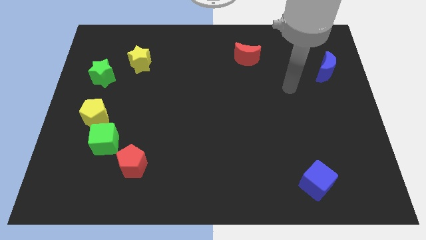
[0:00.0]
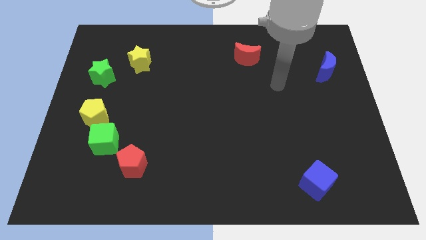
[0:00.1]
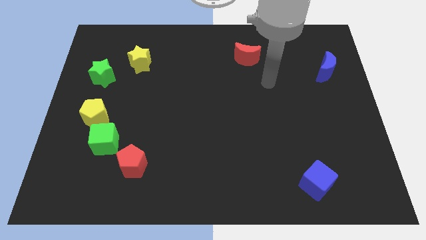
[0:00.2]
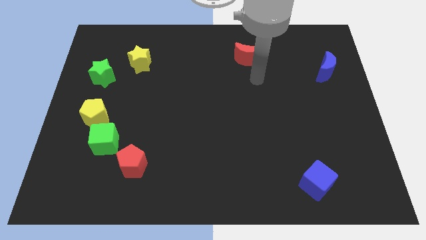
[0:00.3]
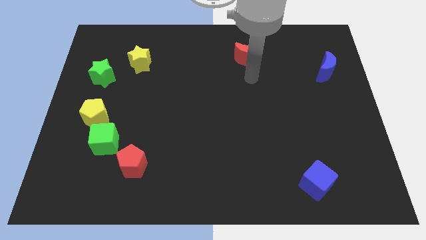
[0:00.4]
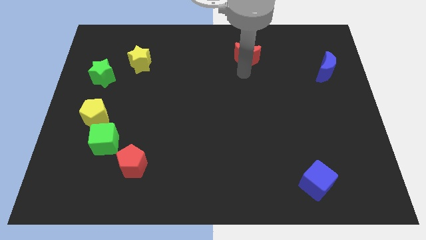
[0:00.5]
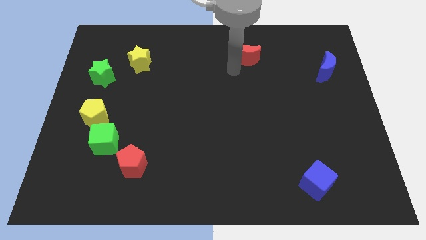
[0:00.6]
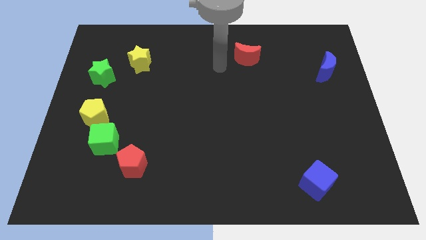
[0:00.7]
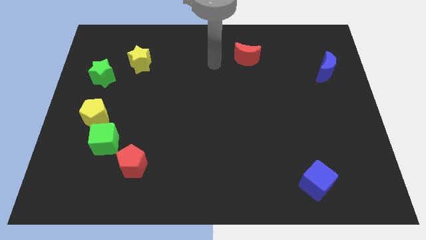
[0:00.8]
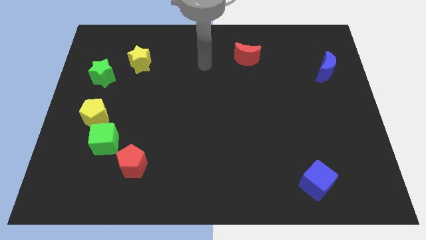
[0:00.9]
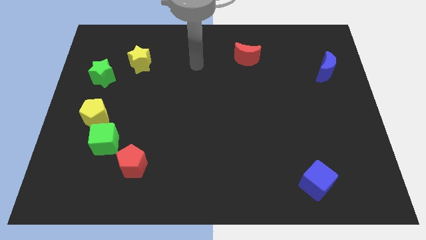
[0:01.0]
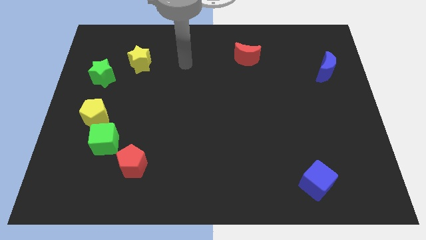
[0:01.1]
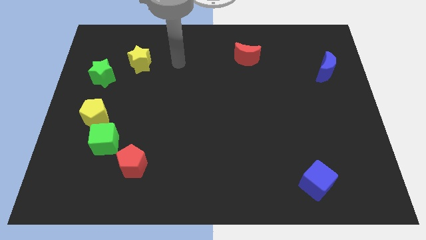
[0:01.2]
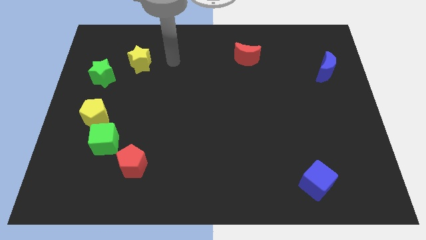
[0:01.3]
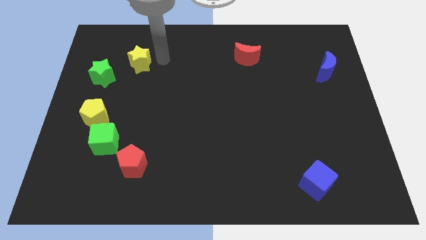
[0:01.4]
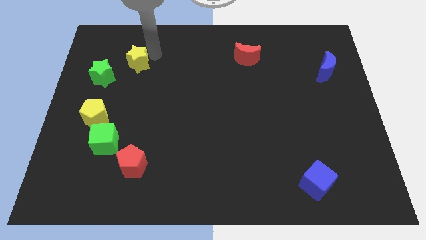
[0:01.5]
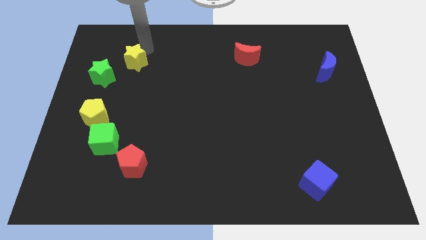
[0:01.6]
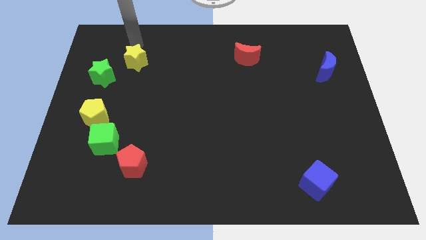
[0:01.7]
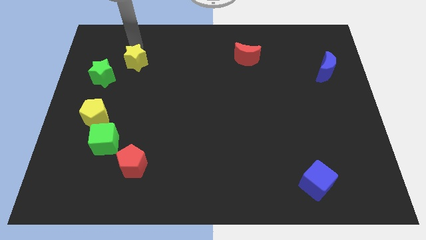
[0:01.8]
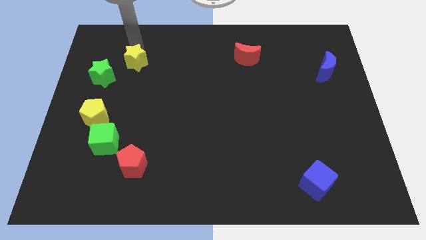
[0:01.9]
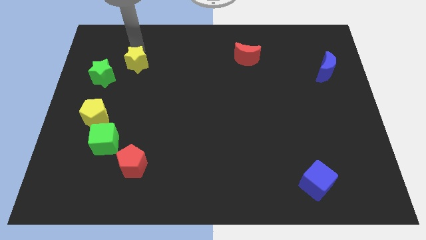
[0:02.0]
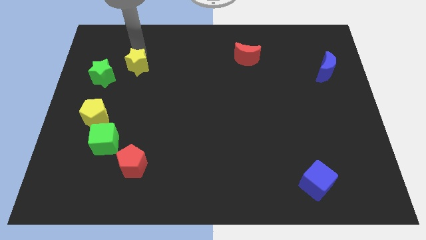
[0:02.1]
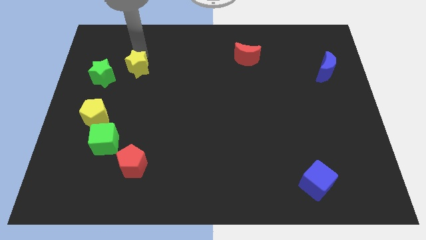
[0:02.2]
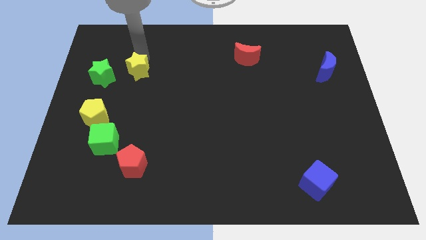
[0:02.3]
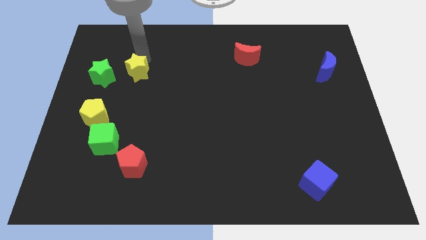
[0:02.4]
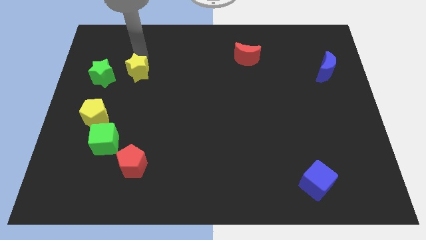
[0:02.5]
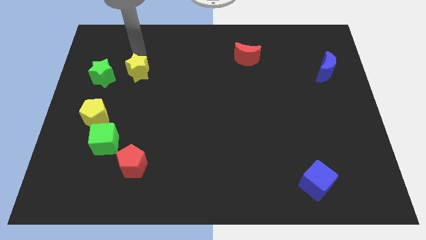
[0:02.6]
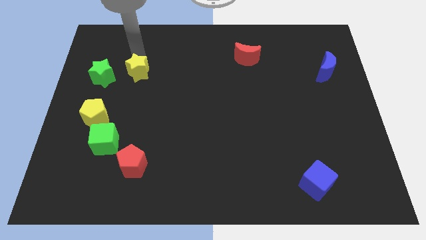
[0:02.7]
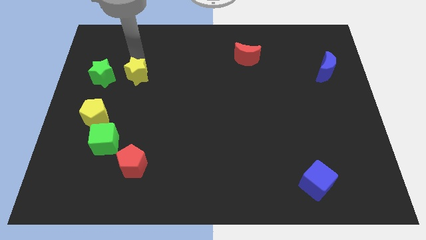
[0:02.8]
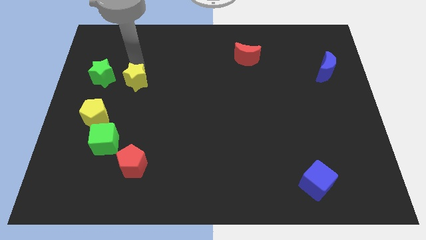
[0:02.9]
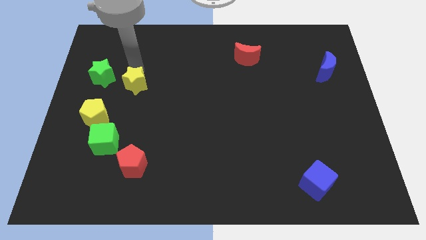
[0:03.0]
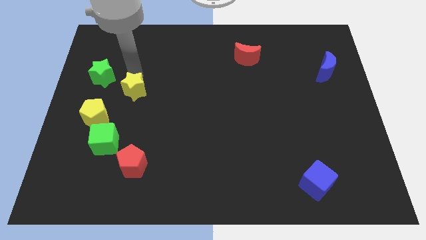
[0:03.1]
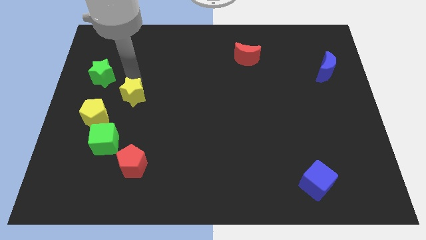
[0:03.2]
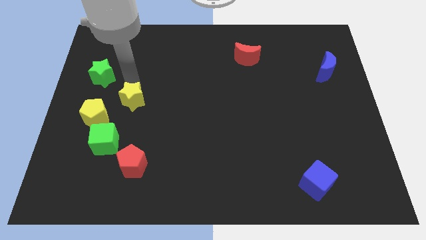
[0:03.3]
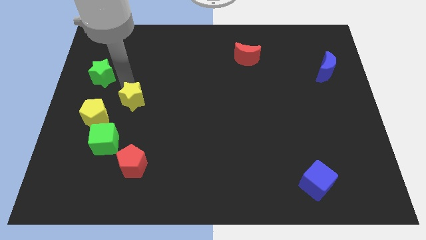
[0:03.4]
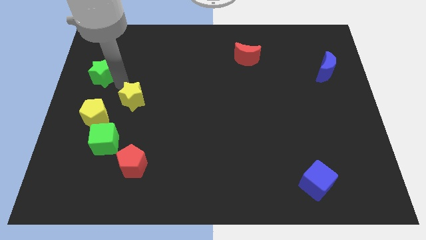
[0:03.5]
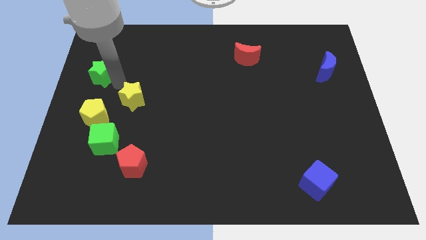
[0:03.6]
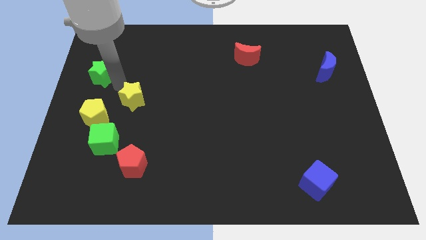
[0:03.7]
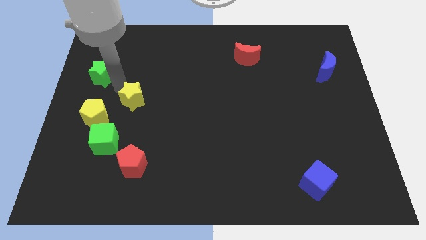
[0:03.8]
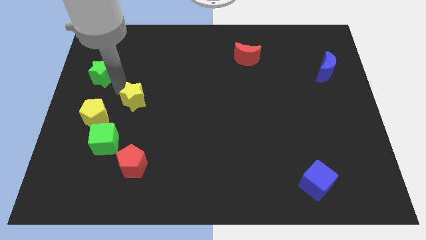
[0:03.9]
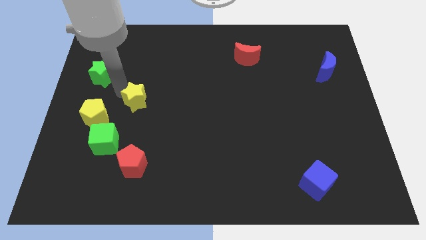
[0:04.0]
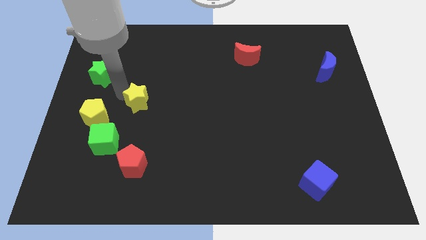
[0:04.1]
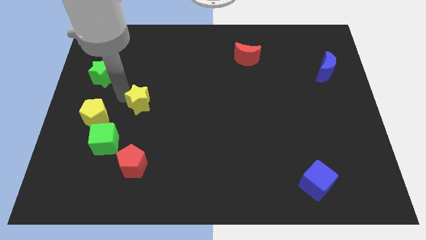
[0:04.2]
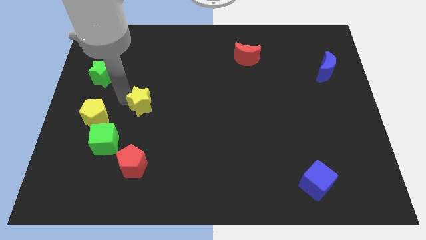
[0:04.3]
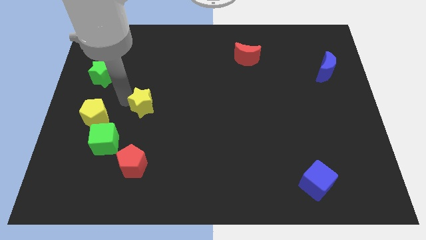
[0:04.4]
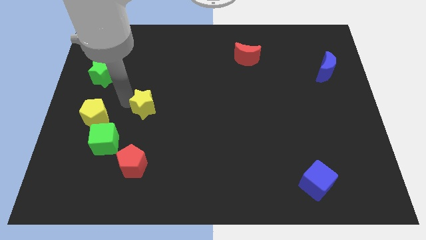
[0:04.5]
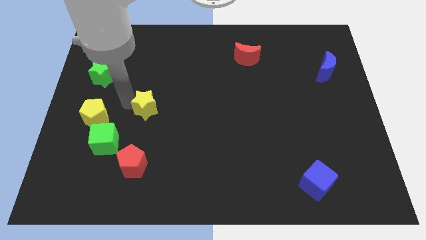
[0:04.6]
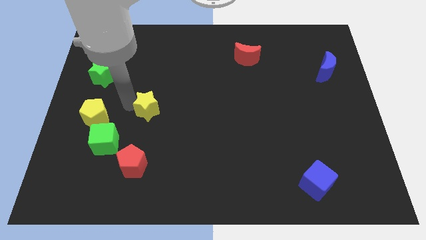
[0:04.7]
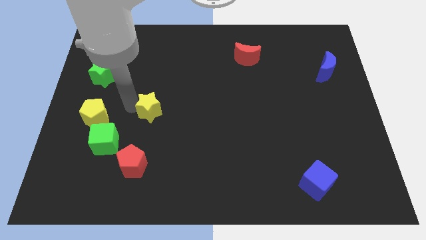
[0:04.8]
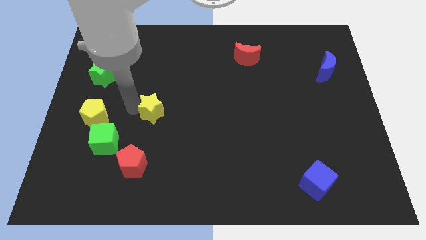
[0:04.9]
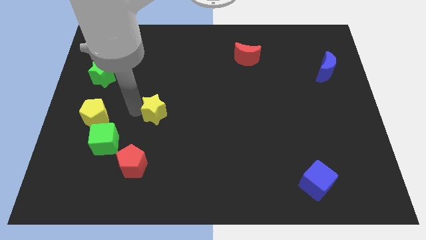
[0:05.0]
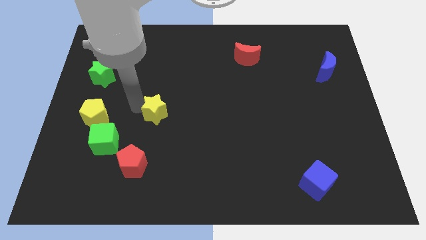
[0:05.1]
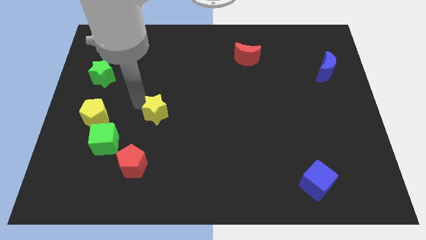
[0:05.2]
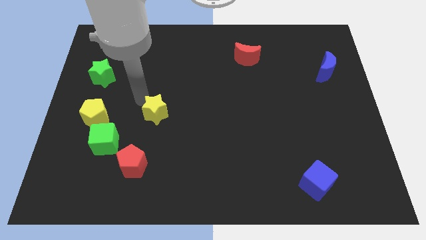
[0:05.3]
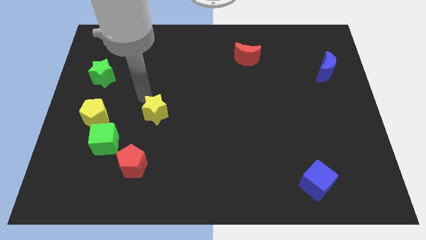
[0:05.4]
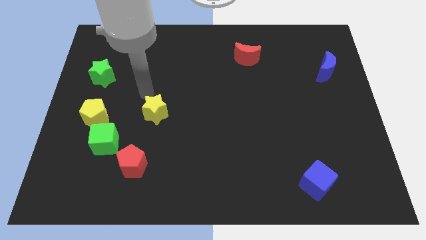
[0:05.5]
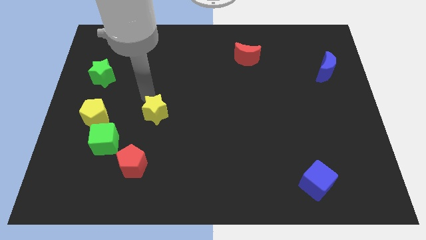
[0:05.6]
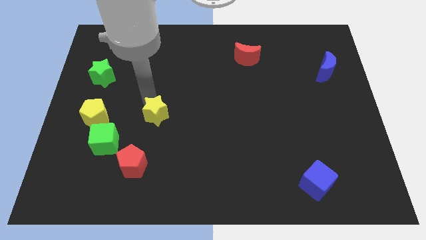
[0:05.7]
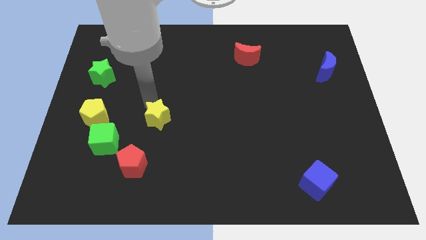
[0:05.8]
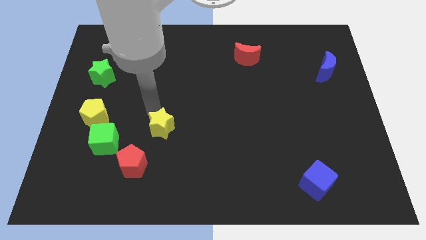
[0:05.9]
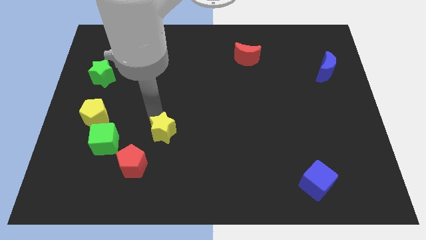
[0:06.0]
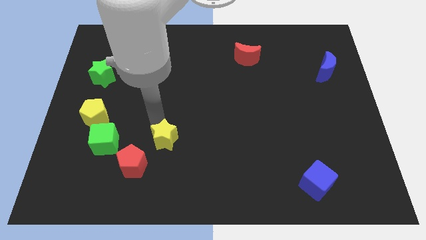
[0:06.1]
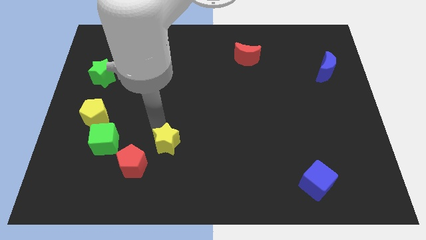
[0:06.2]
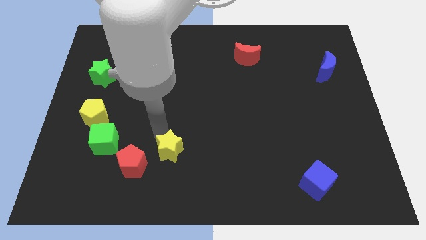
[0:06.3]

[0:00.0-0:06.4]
slide the yellow star just right of the red pentagon

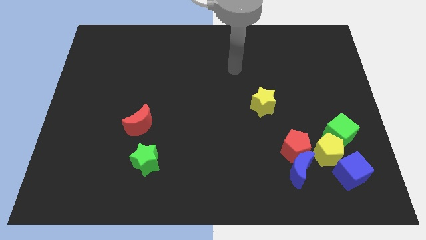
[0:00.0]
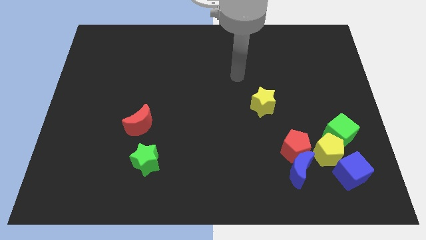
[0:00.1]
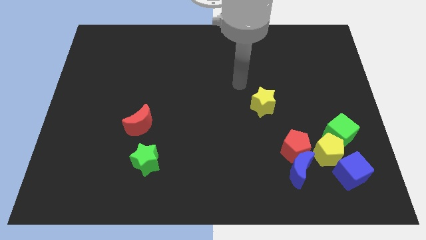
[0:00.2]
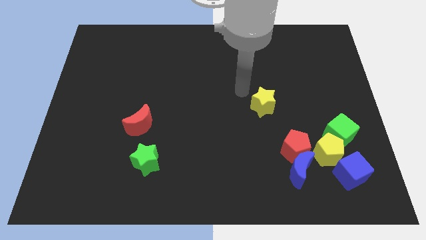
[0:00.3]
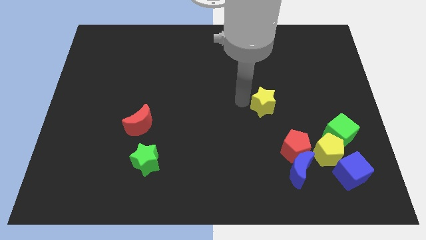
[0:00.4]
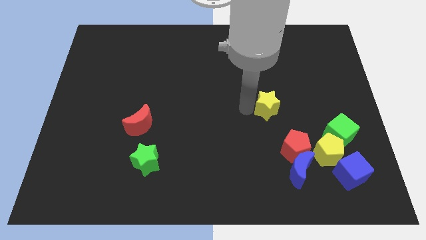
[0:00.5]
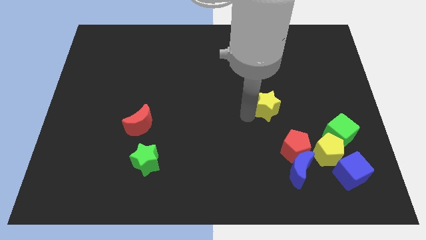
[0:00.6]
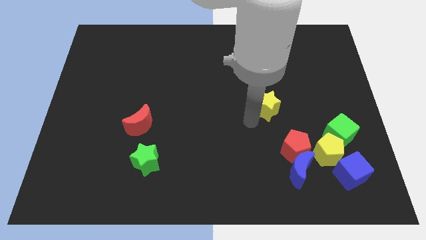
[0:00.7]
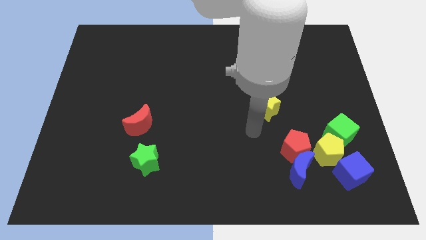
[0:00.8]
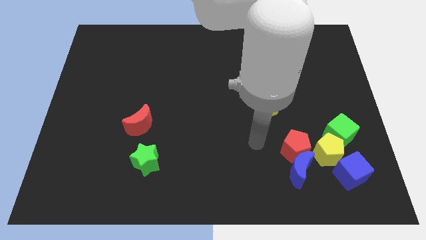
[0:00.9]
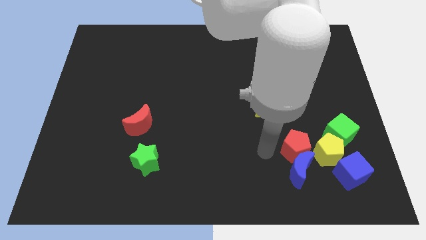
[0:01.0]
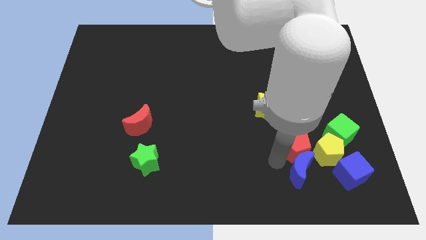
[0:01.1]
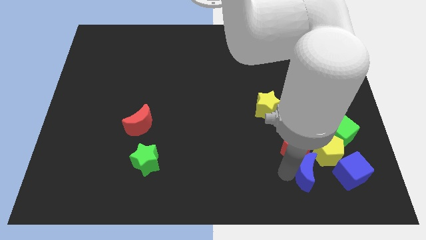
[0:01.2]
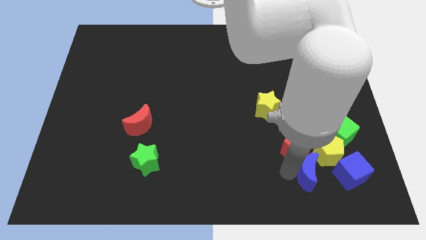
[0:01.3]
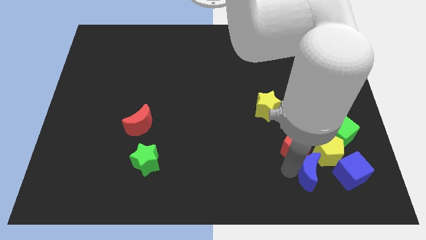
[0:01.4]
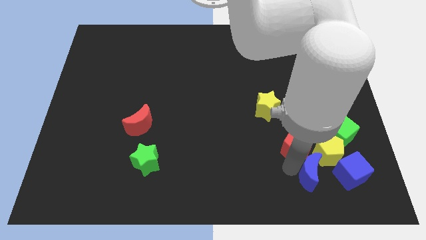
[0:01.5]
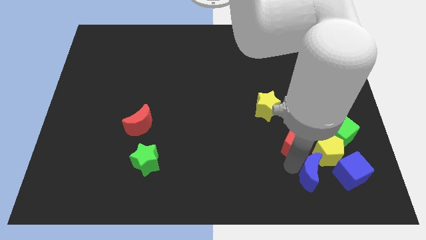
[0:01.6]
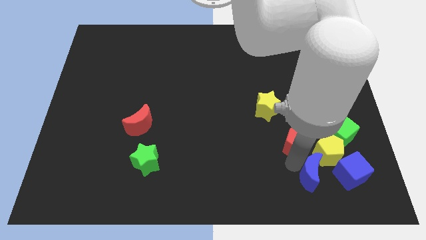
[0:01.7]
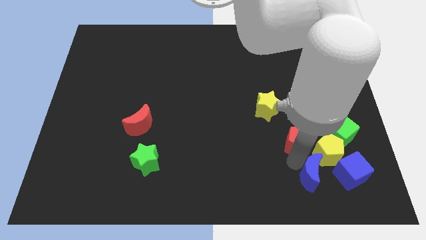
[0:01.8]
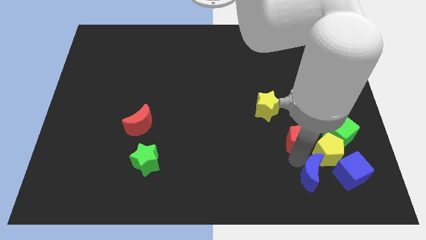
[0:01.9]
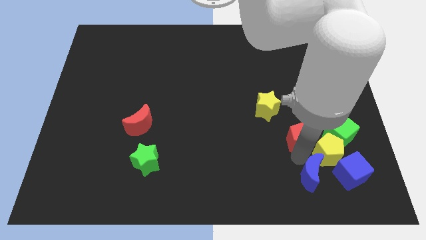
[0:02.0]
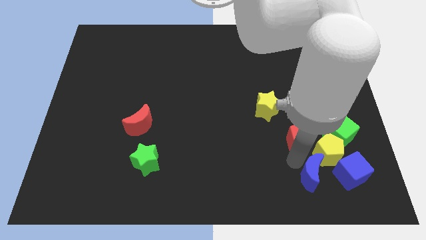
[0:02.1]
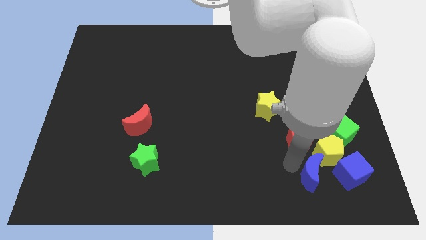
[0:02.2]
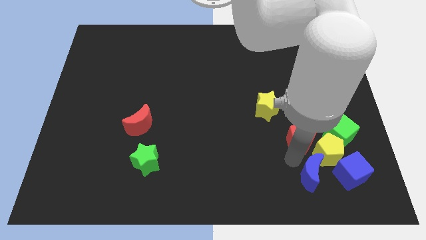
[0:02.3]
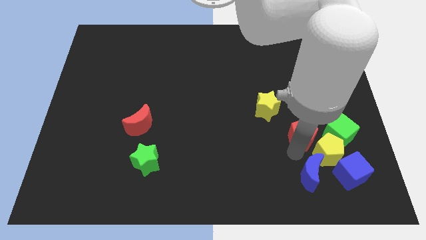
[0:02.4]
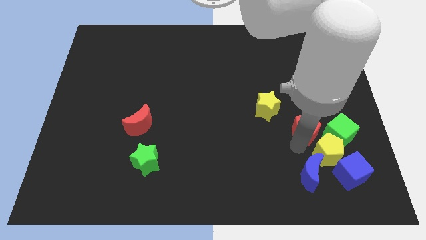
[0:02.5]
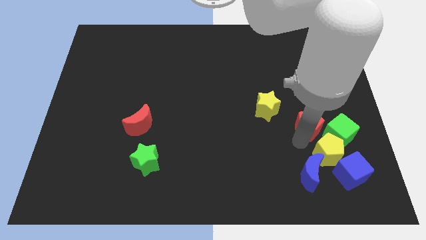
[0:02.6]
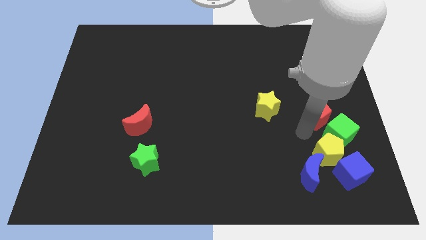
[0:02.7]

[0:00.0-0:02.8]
push the red pentagon to the top of the green cube
